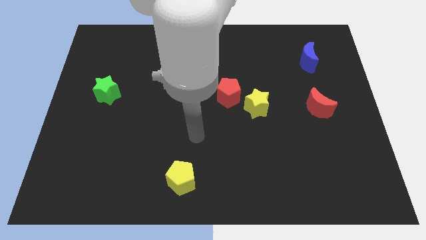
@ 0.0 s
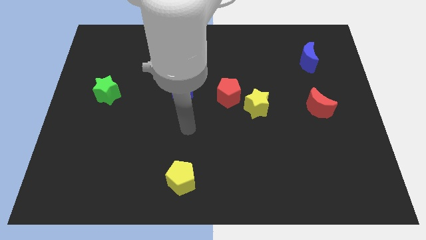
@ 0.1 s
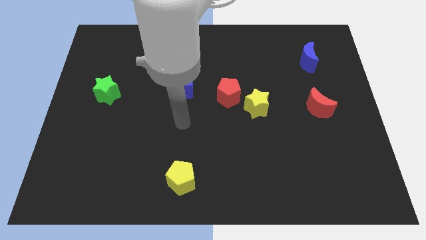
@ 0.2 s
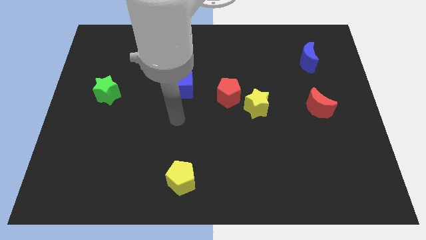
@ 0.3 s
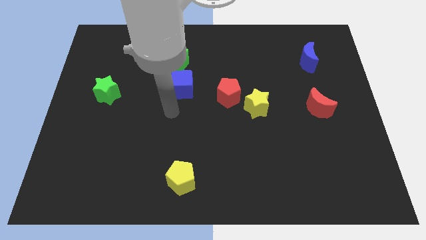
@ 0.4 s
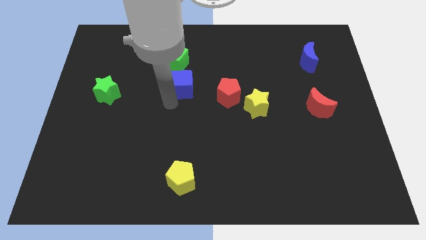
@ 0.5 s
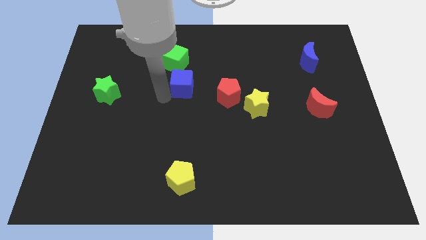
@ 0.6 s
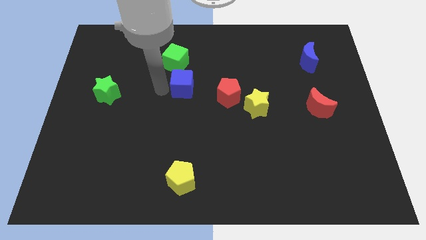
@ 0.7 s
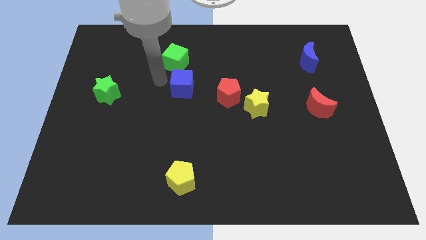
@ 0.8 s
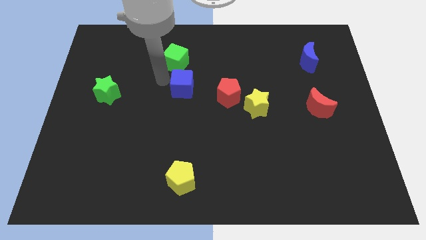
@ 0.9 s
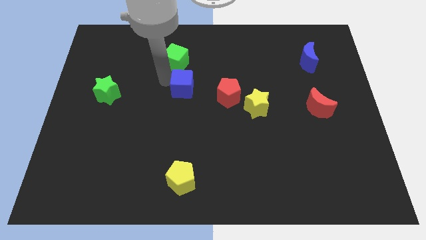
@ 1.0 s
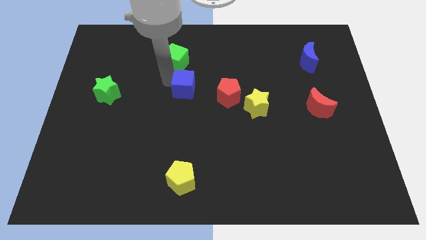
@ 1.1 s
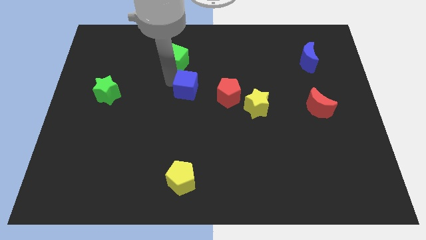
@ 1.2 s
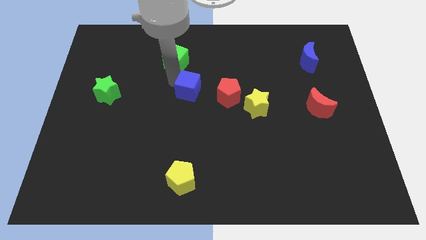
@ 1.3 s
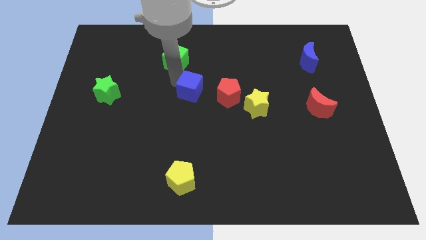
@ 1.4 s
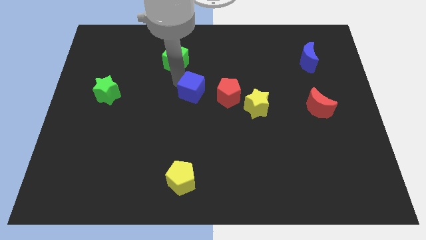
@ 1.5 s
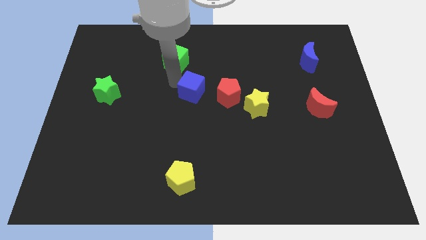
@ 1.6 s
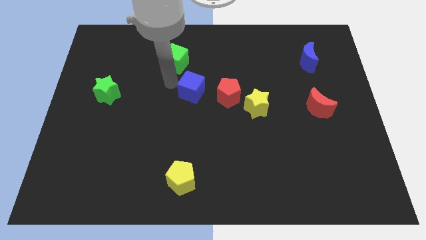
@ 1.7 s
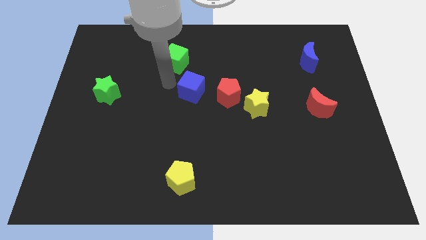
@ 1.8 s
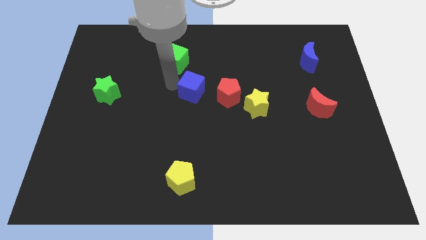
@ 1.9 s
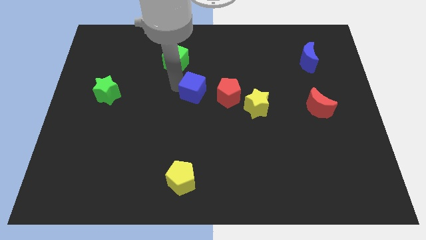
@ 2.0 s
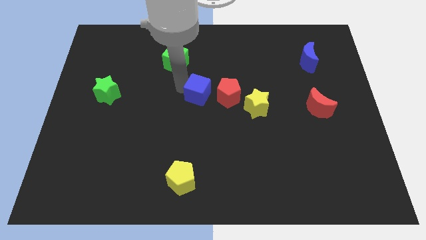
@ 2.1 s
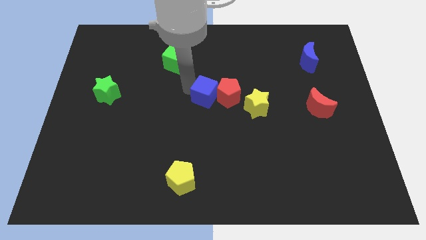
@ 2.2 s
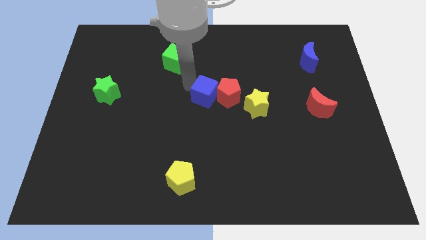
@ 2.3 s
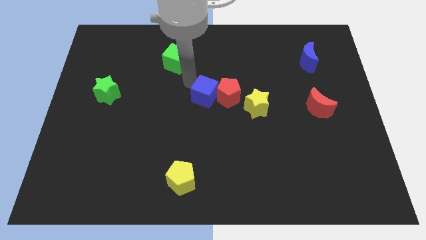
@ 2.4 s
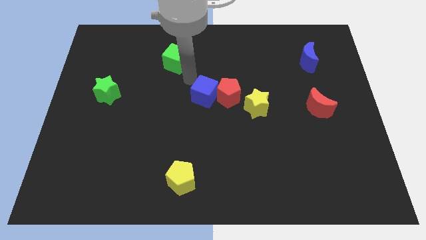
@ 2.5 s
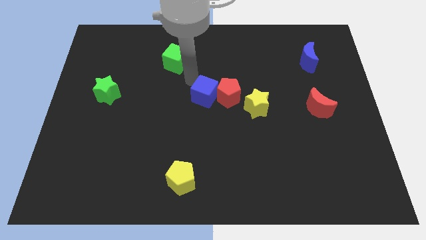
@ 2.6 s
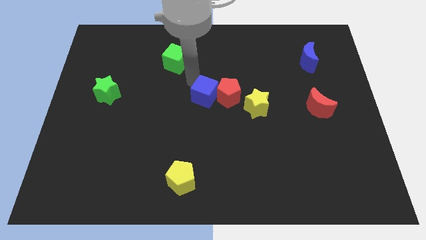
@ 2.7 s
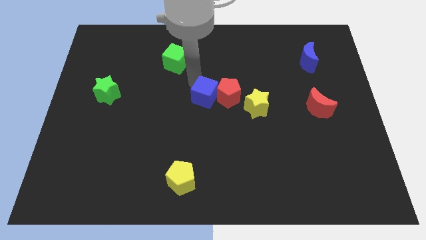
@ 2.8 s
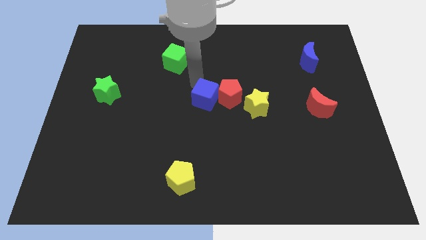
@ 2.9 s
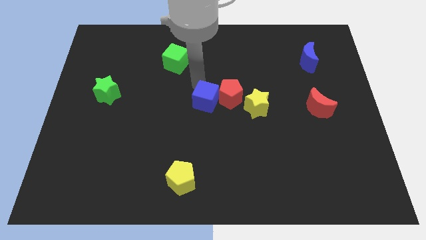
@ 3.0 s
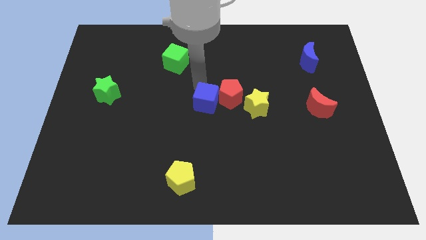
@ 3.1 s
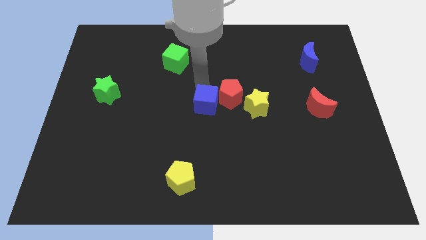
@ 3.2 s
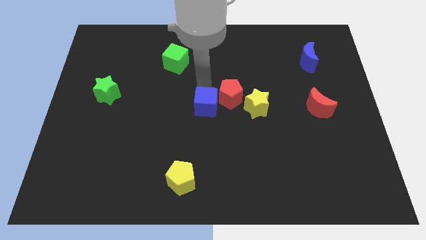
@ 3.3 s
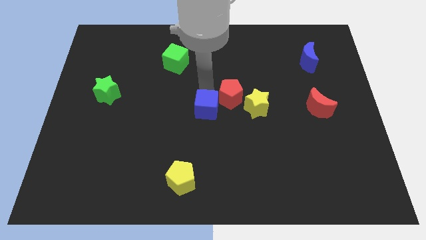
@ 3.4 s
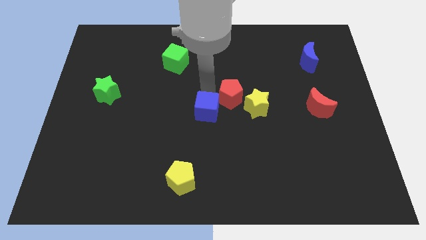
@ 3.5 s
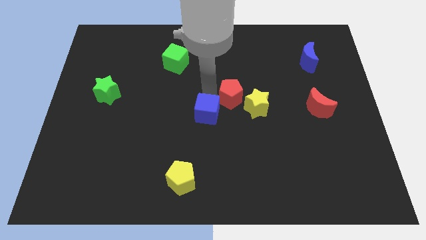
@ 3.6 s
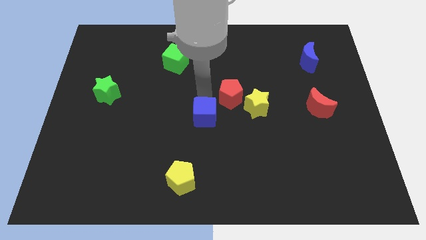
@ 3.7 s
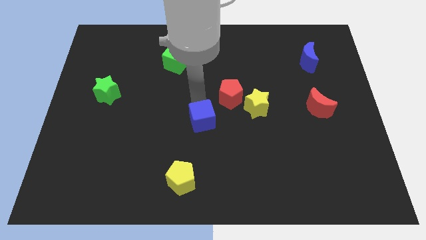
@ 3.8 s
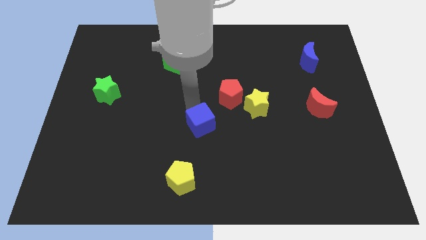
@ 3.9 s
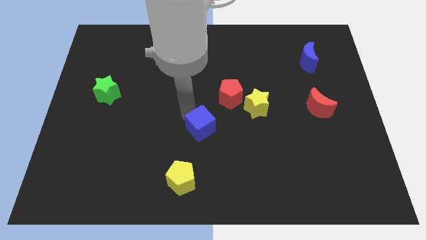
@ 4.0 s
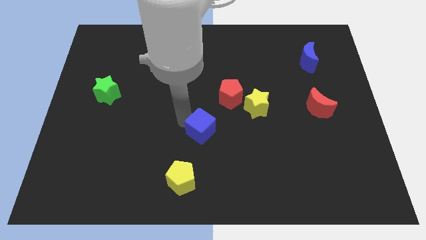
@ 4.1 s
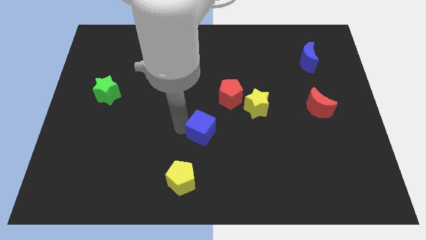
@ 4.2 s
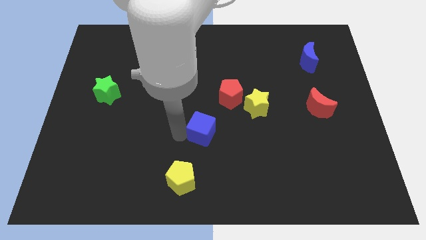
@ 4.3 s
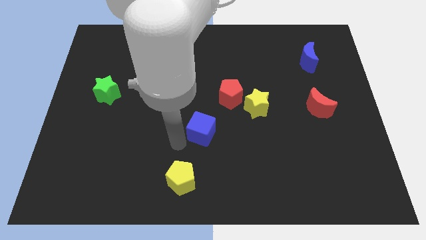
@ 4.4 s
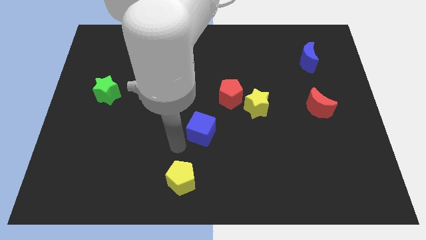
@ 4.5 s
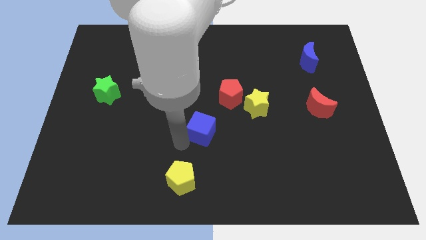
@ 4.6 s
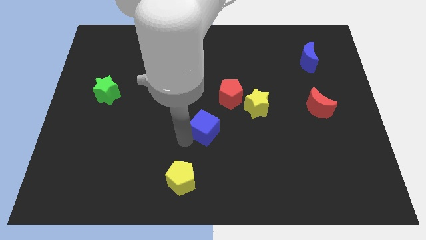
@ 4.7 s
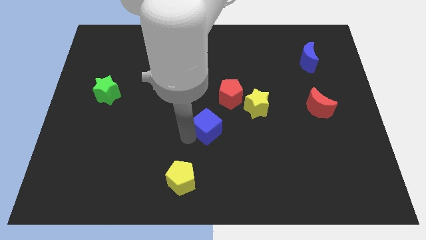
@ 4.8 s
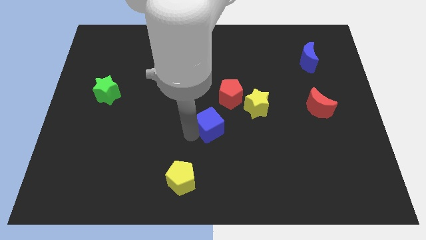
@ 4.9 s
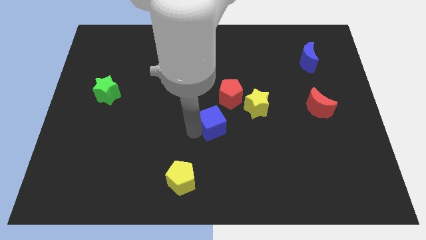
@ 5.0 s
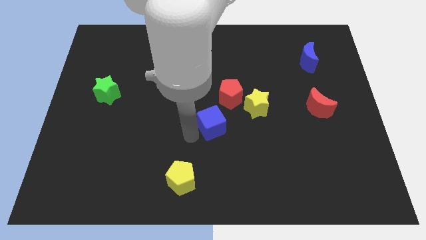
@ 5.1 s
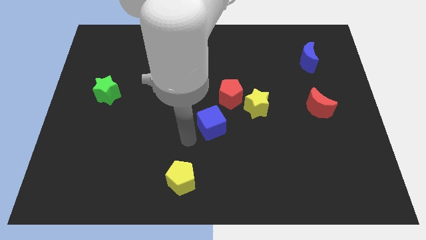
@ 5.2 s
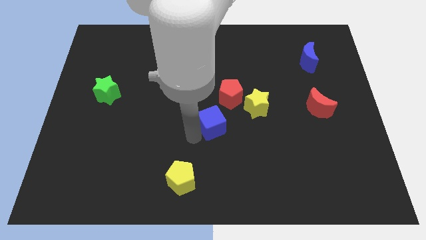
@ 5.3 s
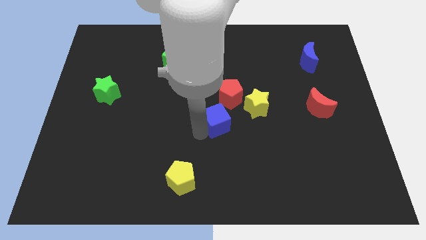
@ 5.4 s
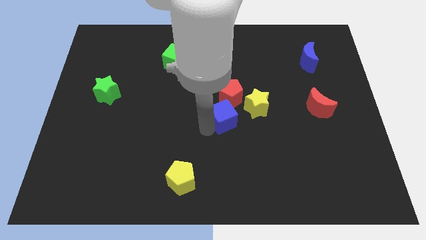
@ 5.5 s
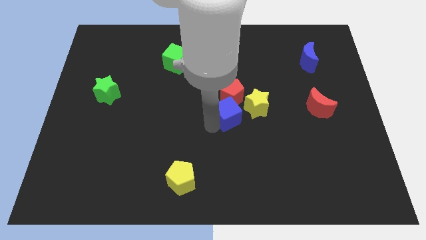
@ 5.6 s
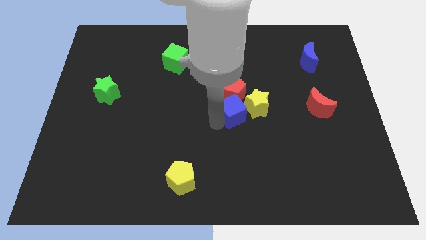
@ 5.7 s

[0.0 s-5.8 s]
slide the blue cube close to the yellow star
